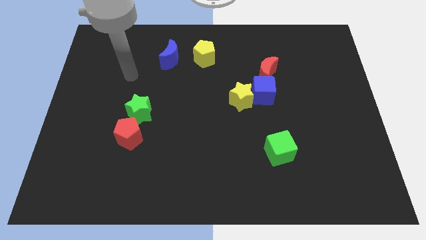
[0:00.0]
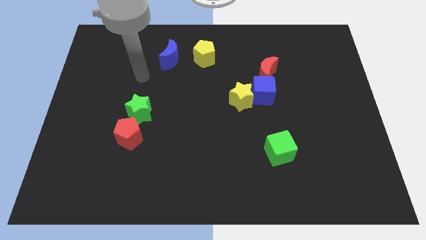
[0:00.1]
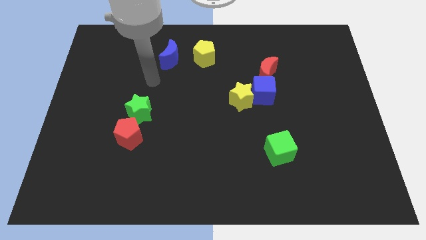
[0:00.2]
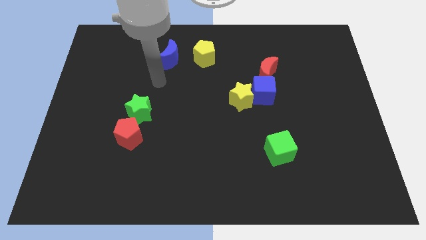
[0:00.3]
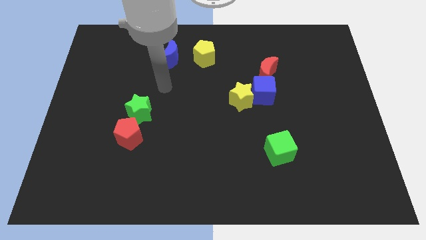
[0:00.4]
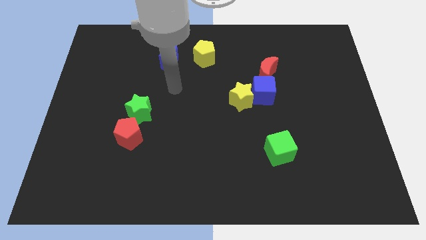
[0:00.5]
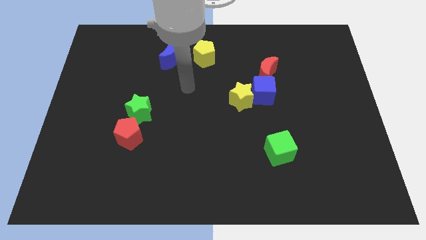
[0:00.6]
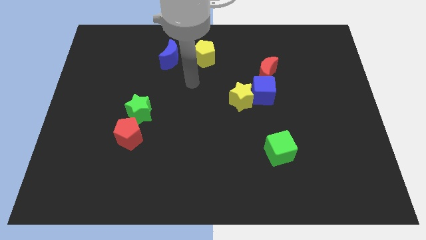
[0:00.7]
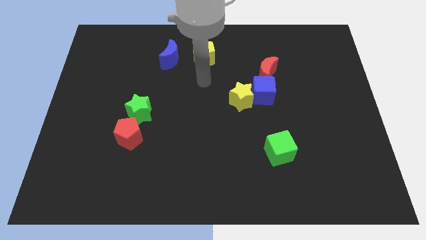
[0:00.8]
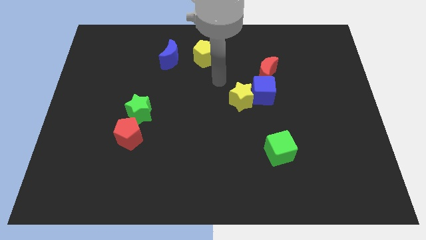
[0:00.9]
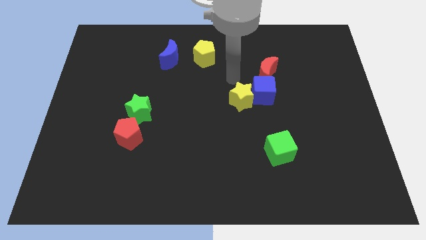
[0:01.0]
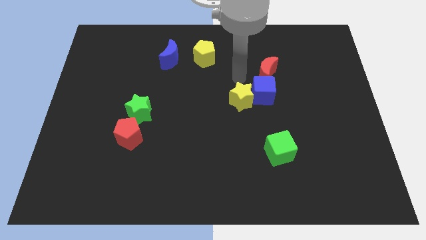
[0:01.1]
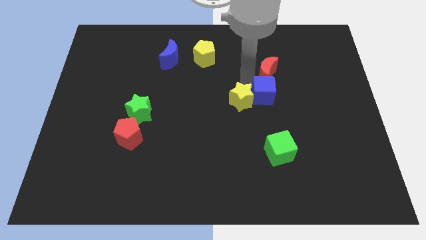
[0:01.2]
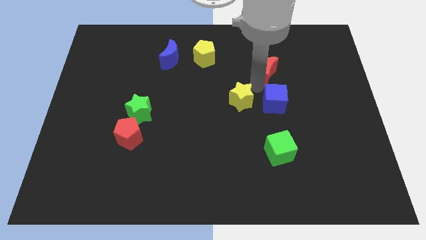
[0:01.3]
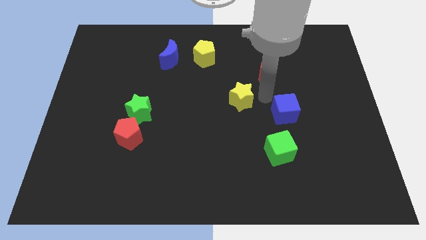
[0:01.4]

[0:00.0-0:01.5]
pull the yellow star apart from the blue cube

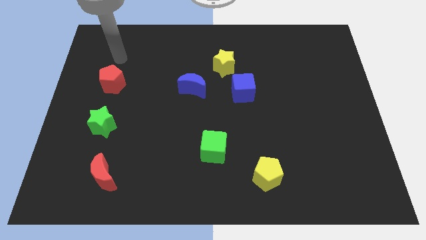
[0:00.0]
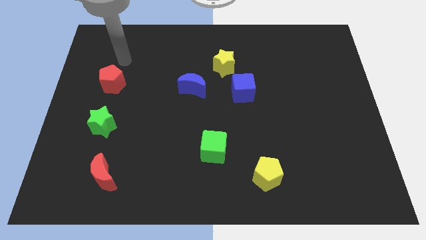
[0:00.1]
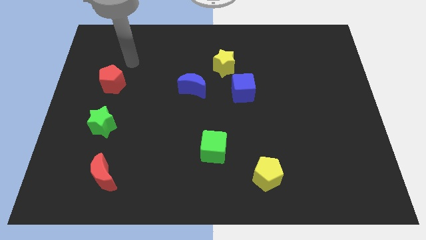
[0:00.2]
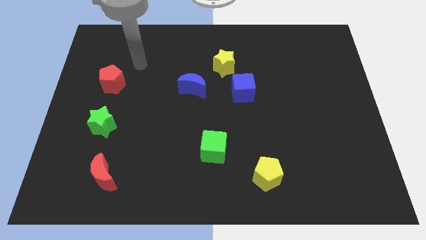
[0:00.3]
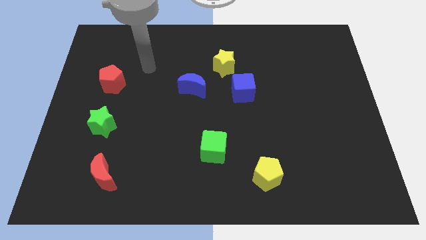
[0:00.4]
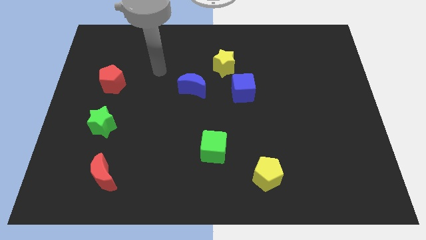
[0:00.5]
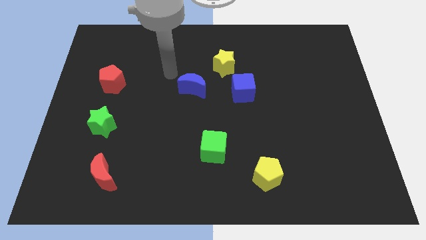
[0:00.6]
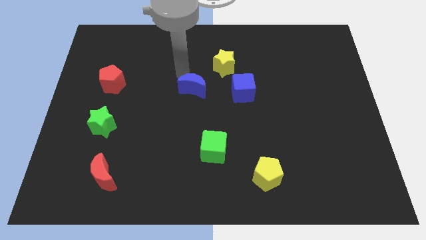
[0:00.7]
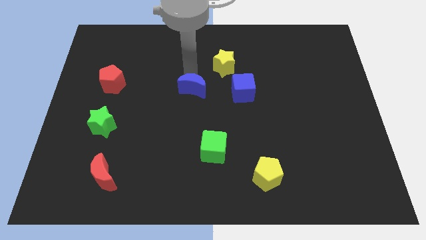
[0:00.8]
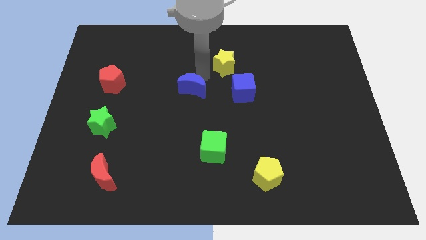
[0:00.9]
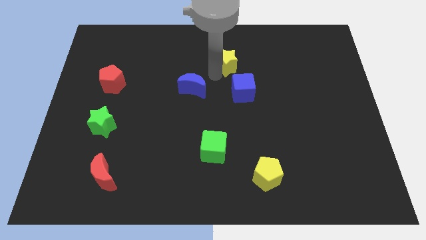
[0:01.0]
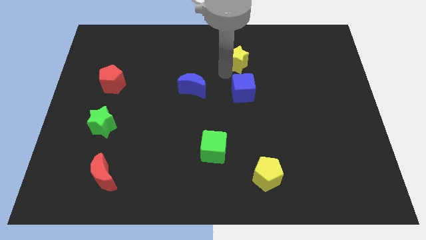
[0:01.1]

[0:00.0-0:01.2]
pull the blue cube apart from the yellow star

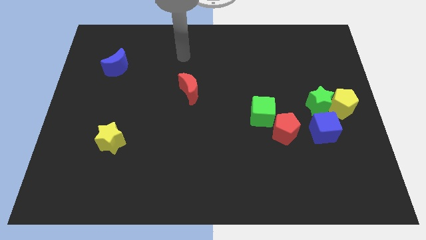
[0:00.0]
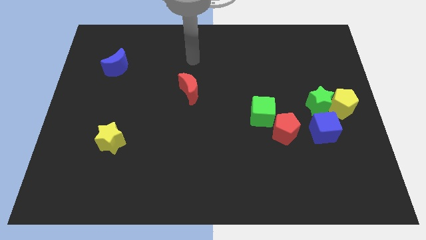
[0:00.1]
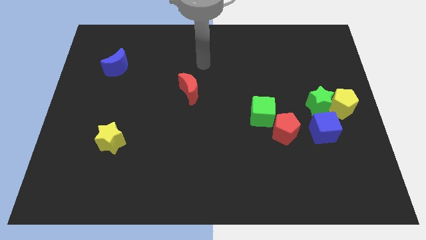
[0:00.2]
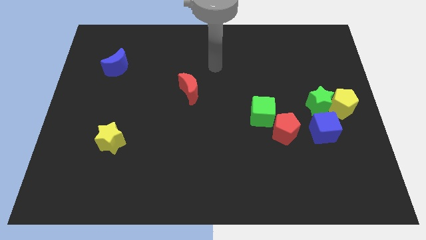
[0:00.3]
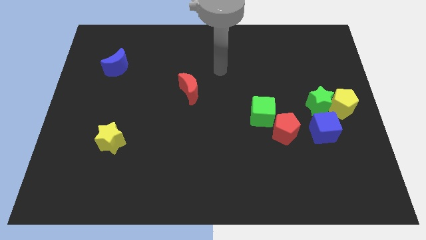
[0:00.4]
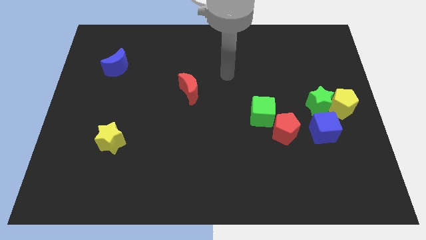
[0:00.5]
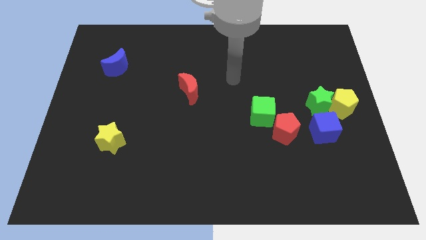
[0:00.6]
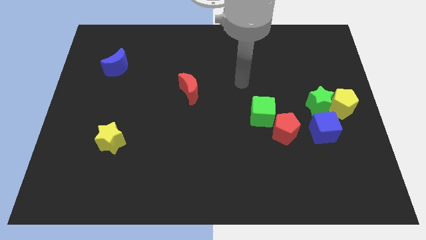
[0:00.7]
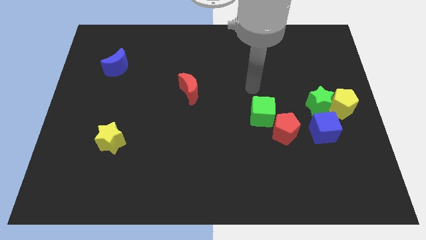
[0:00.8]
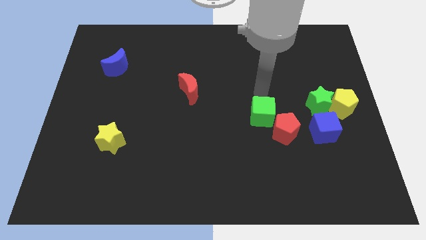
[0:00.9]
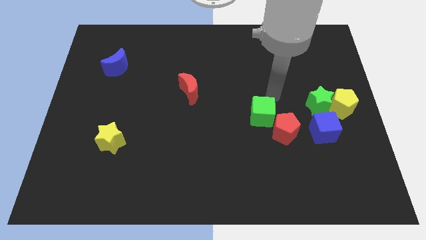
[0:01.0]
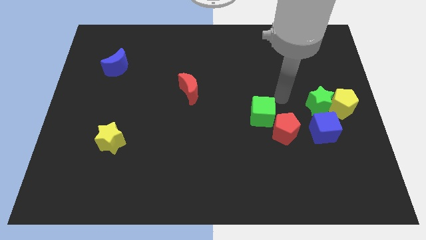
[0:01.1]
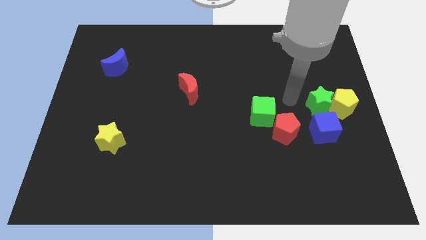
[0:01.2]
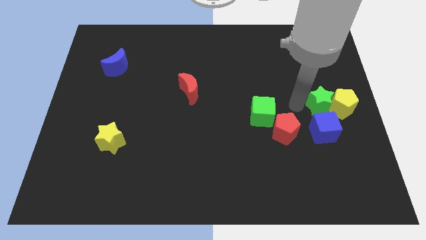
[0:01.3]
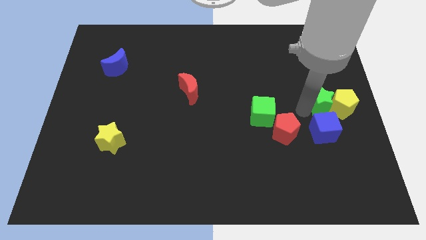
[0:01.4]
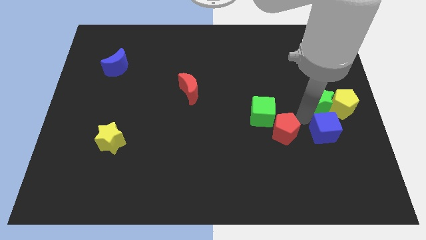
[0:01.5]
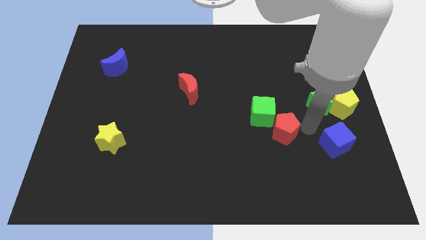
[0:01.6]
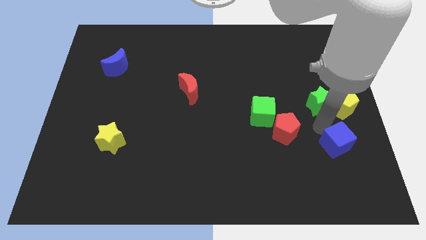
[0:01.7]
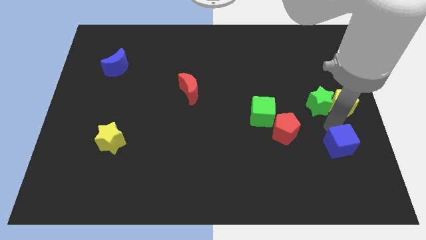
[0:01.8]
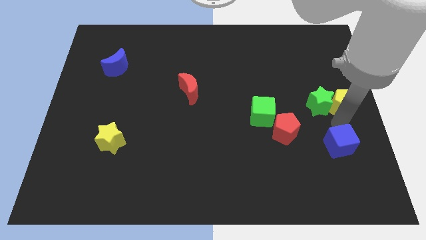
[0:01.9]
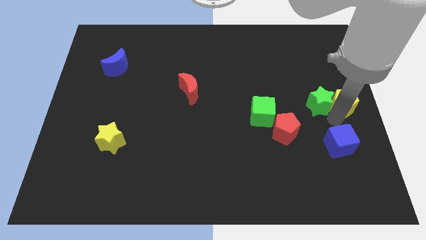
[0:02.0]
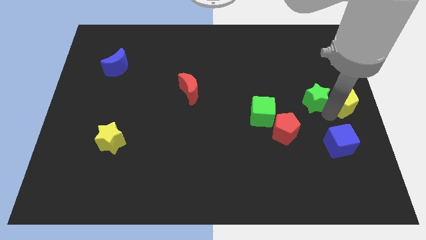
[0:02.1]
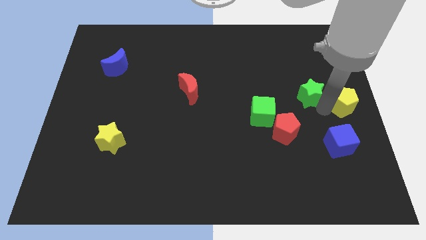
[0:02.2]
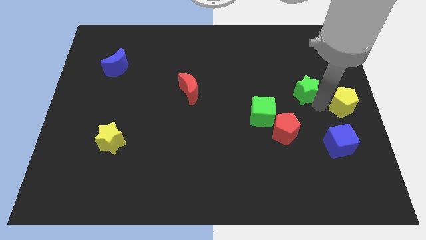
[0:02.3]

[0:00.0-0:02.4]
move the green star away from the yellow pentagon and blue cube

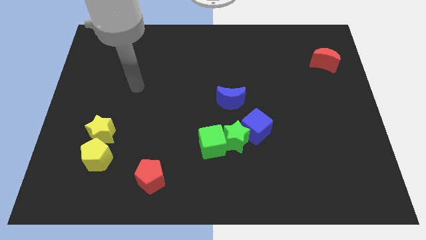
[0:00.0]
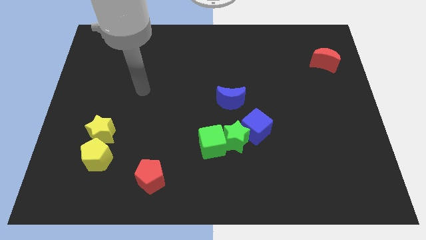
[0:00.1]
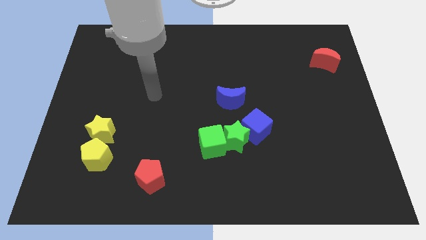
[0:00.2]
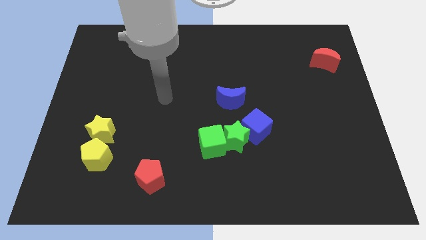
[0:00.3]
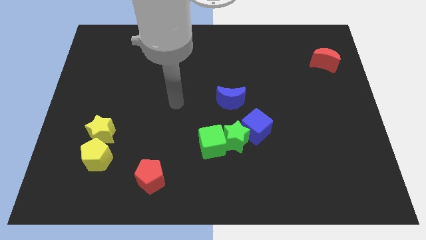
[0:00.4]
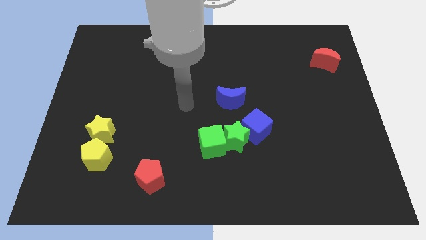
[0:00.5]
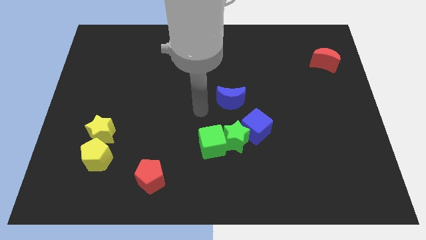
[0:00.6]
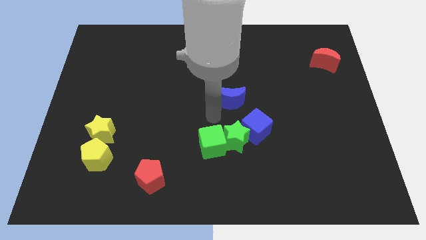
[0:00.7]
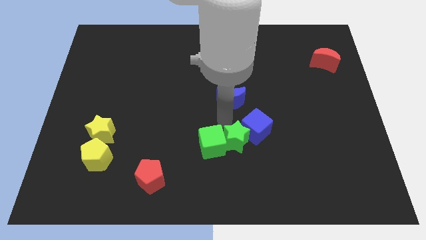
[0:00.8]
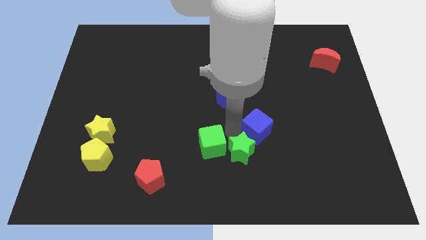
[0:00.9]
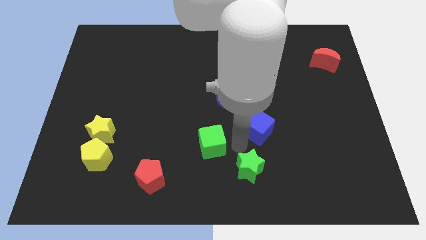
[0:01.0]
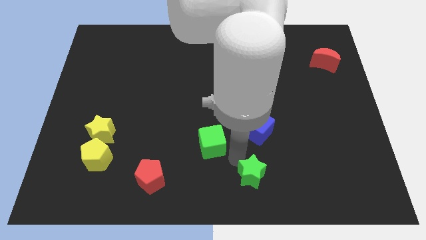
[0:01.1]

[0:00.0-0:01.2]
move the green cube away from the green star

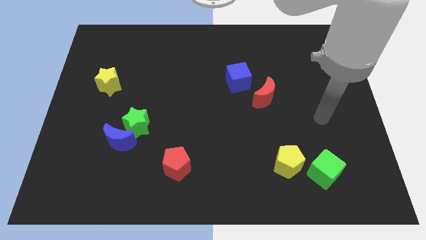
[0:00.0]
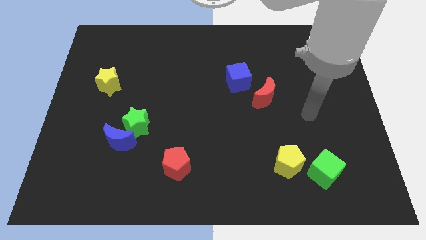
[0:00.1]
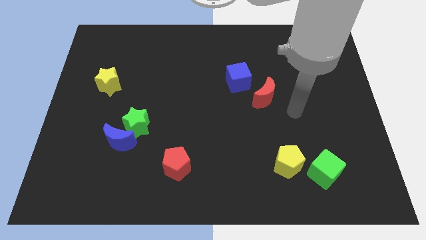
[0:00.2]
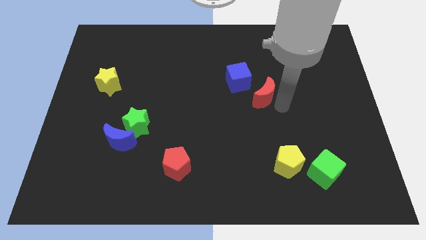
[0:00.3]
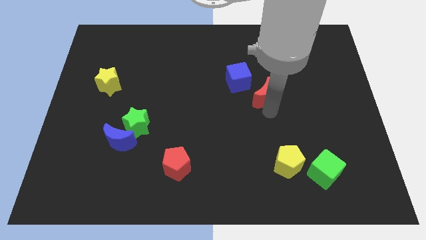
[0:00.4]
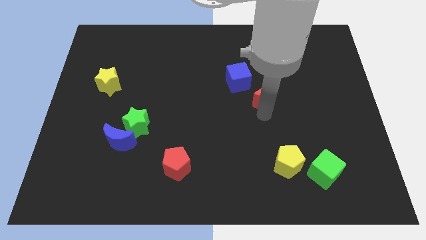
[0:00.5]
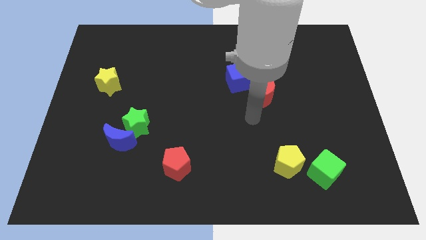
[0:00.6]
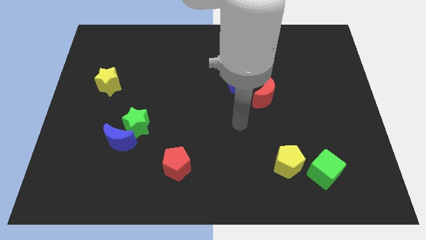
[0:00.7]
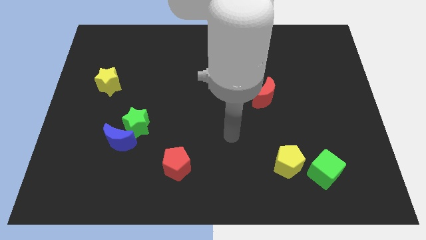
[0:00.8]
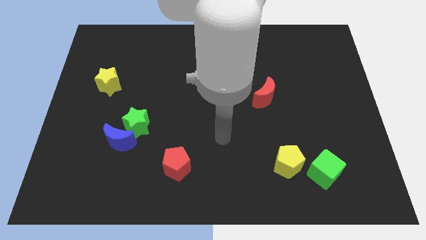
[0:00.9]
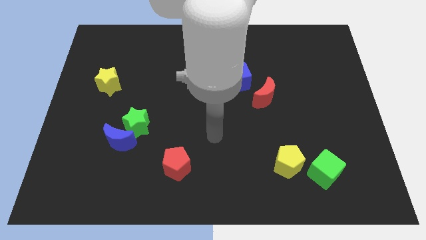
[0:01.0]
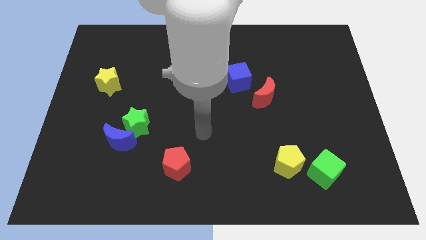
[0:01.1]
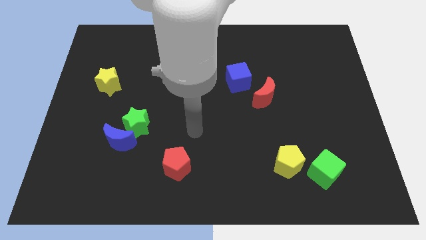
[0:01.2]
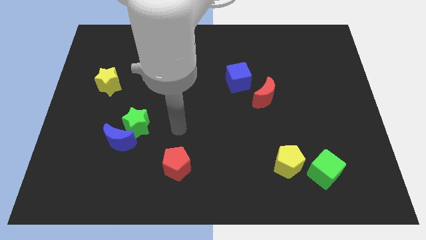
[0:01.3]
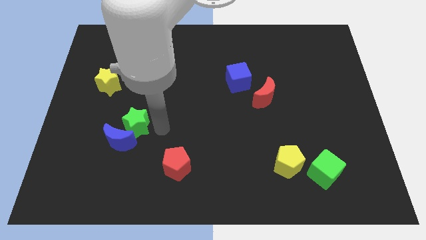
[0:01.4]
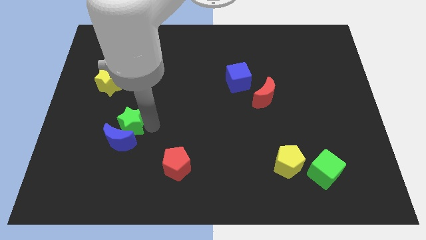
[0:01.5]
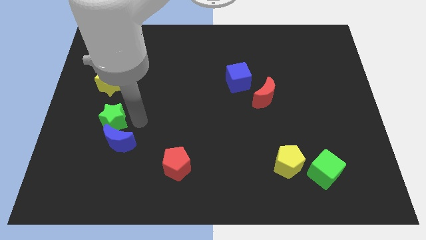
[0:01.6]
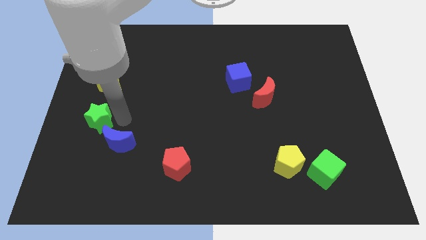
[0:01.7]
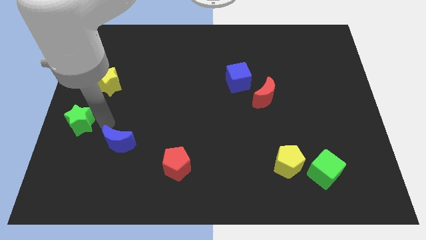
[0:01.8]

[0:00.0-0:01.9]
move the blue moon away from the green star

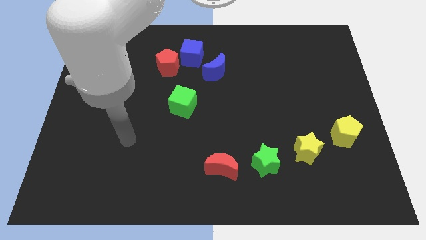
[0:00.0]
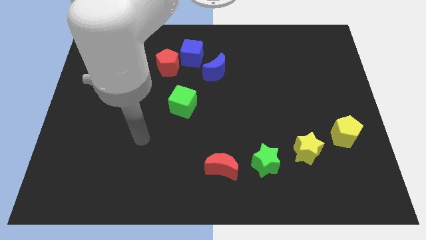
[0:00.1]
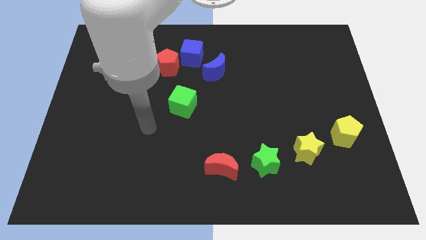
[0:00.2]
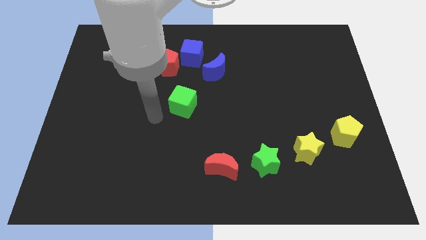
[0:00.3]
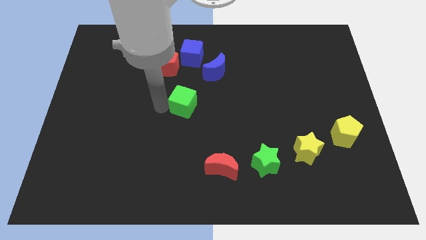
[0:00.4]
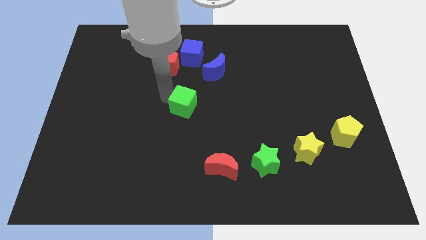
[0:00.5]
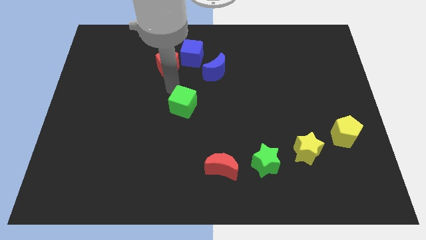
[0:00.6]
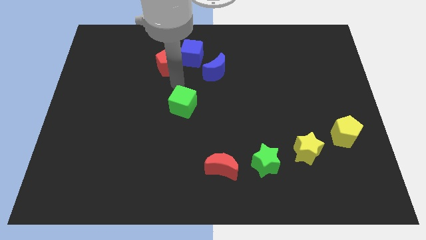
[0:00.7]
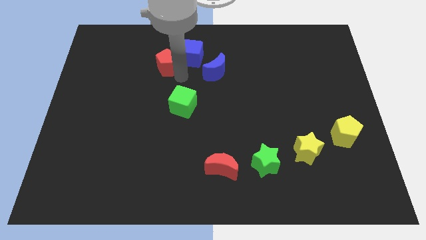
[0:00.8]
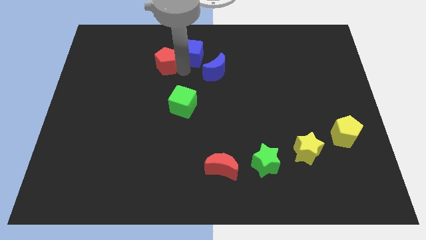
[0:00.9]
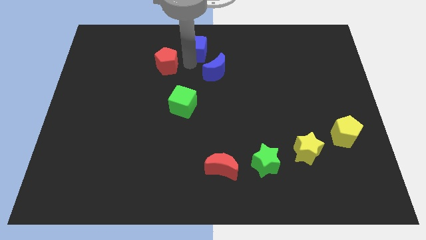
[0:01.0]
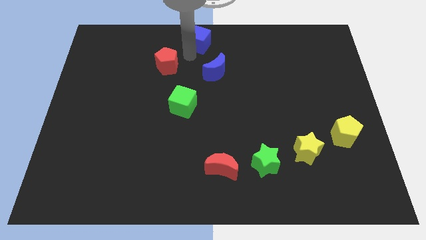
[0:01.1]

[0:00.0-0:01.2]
move the red pentagon away from the blue cube
